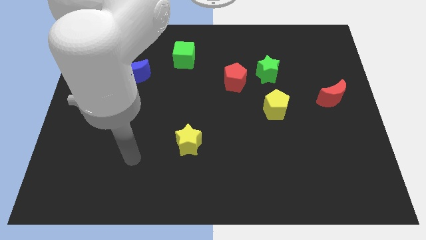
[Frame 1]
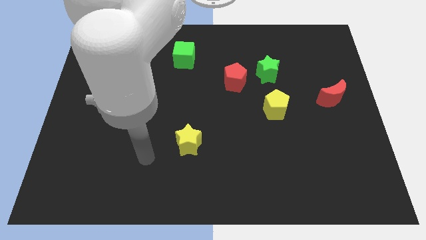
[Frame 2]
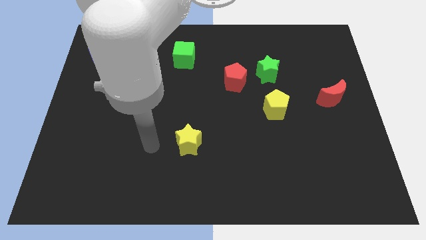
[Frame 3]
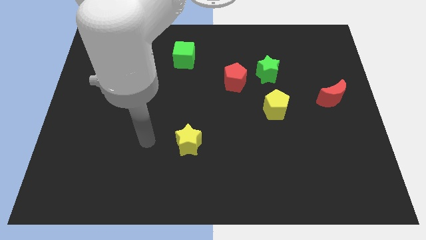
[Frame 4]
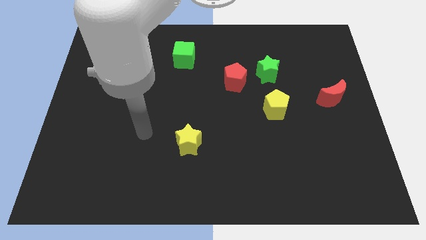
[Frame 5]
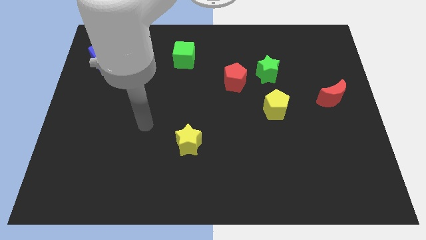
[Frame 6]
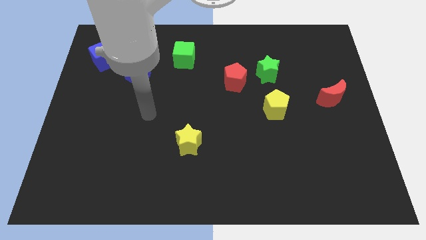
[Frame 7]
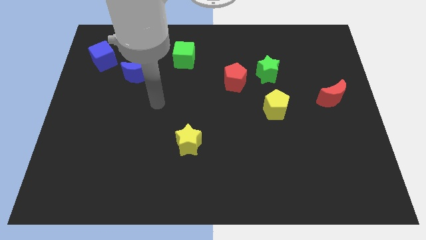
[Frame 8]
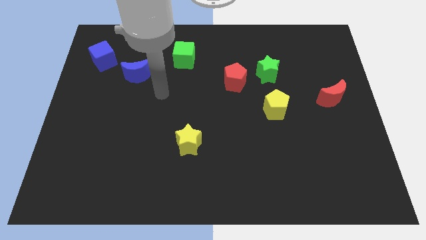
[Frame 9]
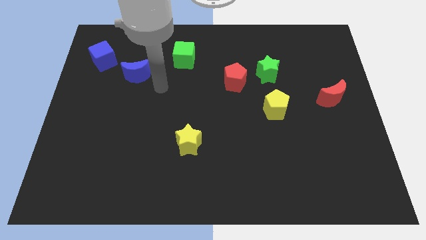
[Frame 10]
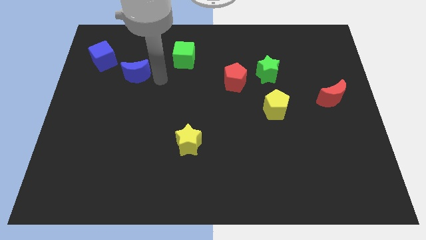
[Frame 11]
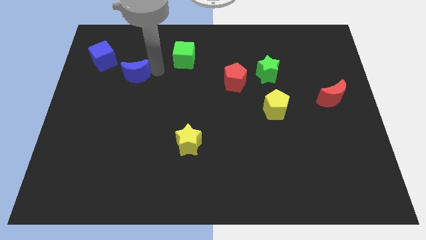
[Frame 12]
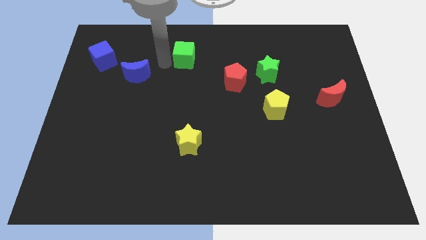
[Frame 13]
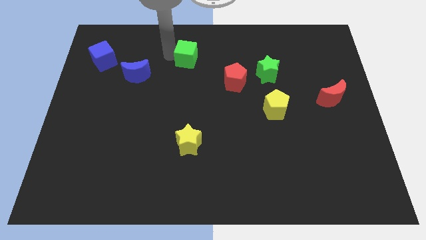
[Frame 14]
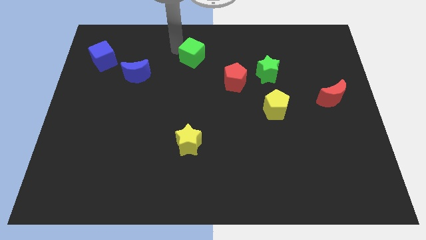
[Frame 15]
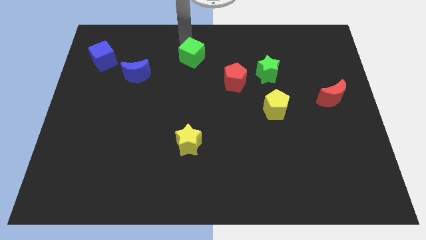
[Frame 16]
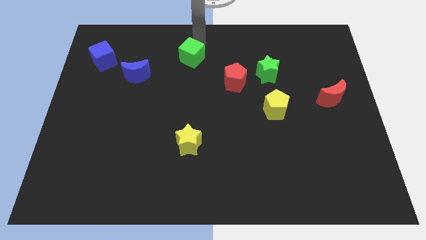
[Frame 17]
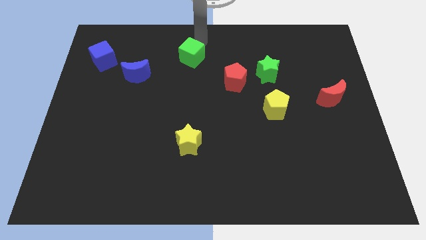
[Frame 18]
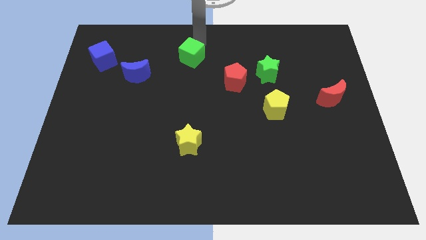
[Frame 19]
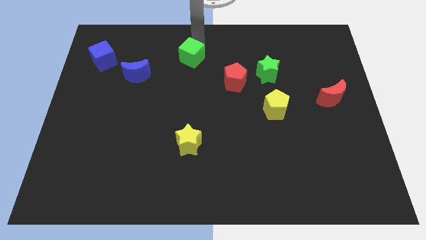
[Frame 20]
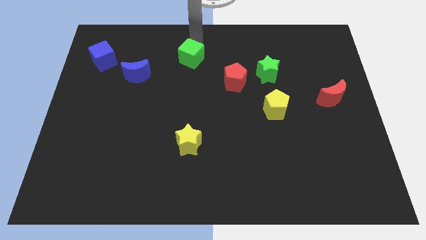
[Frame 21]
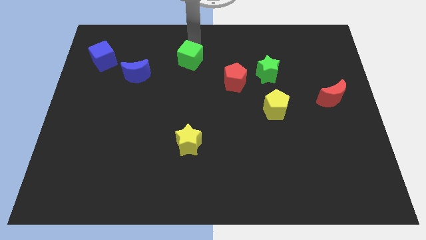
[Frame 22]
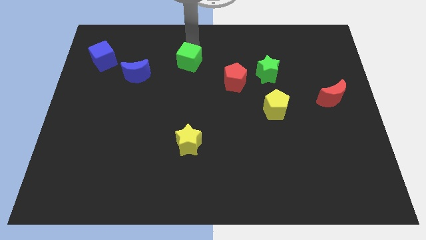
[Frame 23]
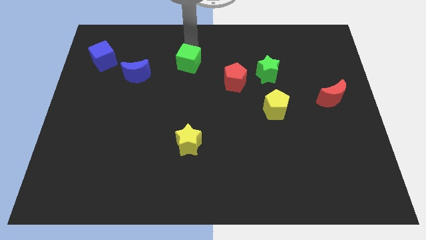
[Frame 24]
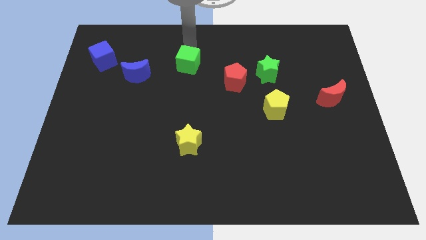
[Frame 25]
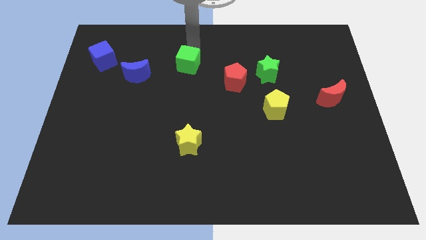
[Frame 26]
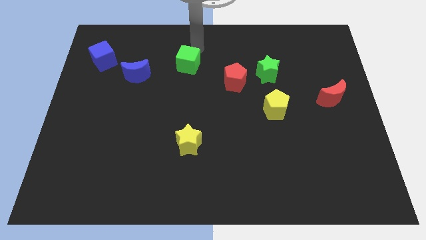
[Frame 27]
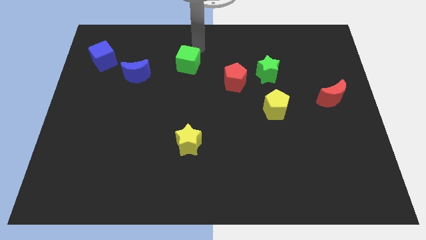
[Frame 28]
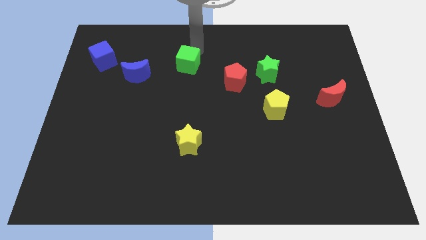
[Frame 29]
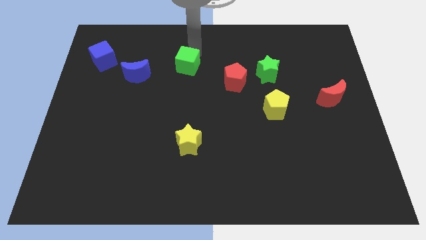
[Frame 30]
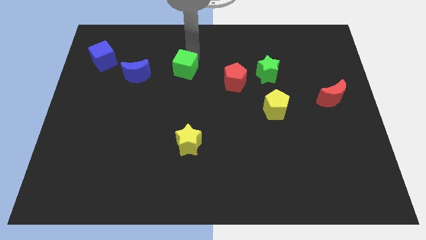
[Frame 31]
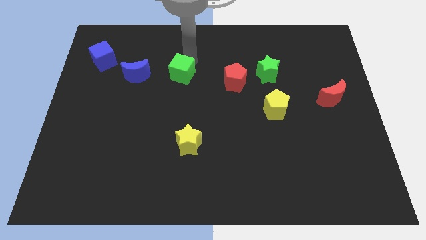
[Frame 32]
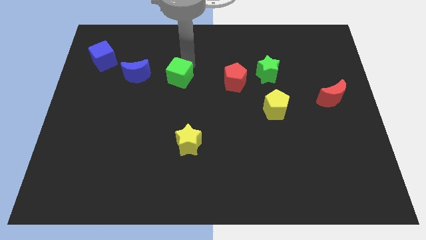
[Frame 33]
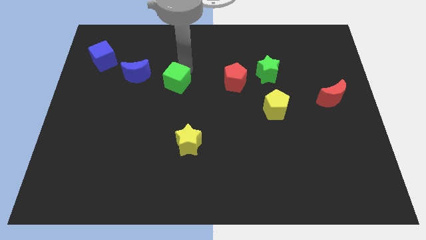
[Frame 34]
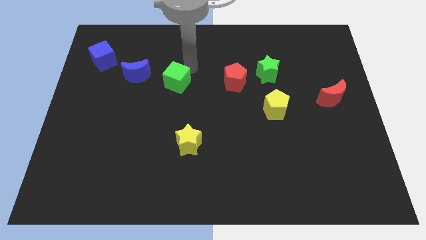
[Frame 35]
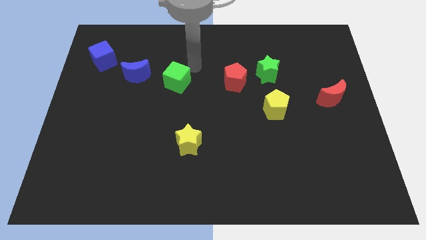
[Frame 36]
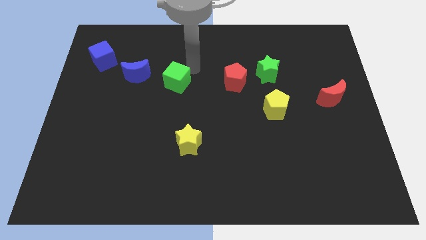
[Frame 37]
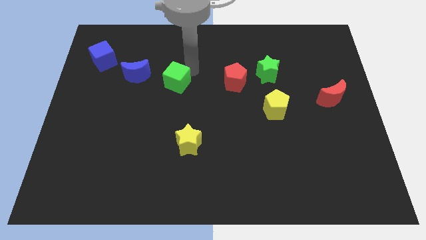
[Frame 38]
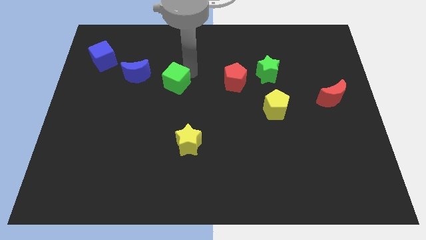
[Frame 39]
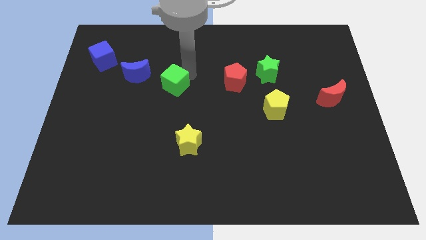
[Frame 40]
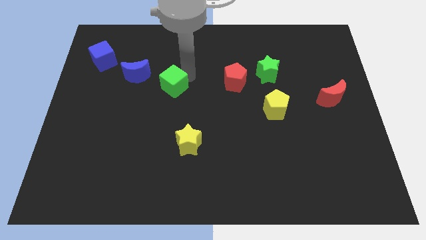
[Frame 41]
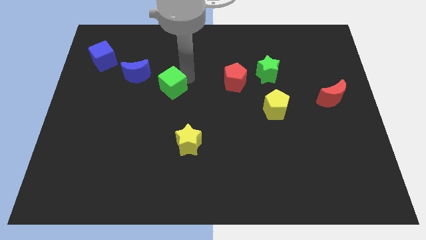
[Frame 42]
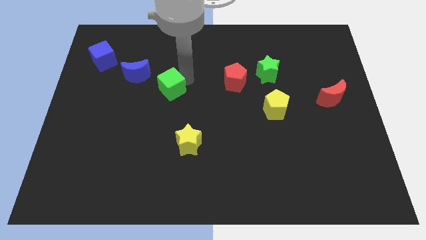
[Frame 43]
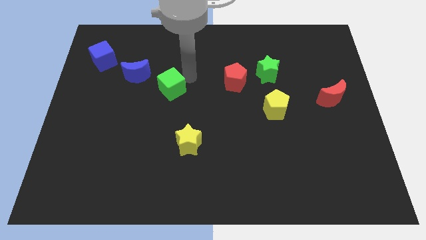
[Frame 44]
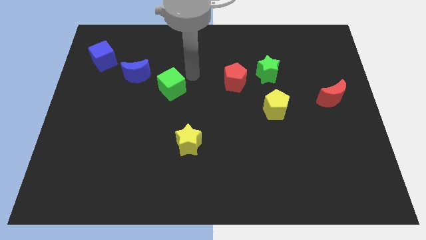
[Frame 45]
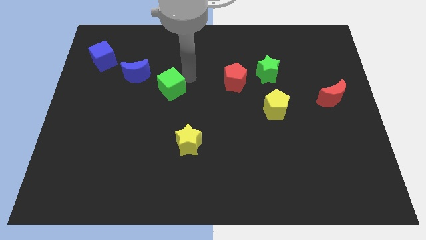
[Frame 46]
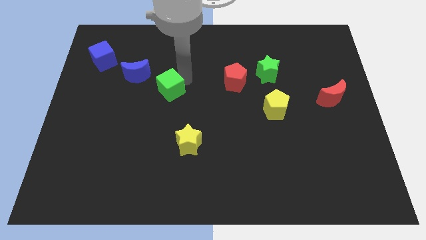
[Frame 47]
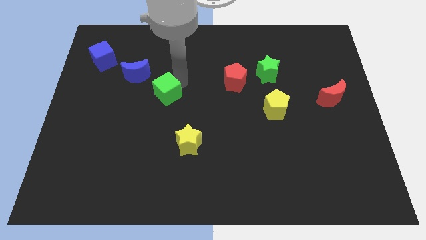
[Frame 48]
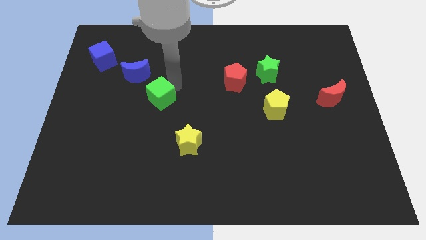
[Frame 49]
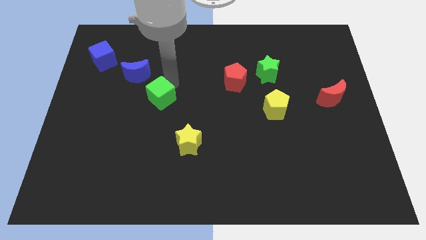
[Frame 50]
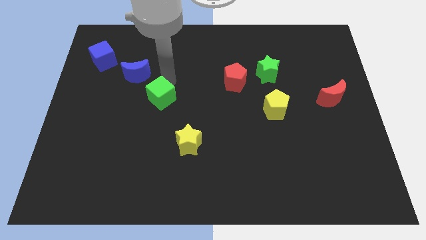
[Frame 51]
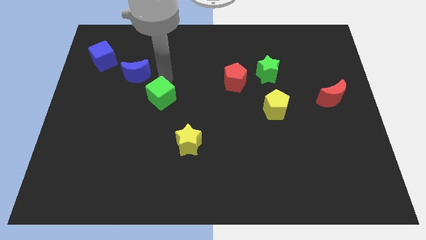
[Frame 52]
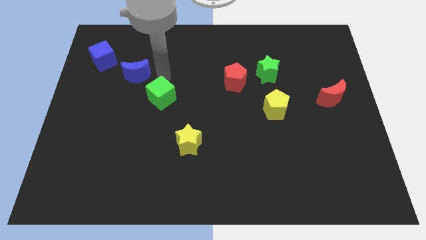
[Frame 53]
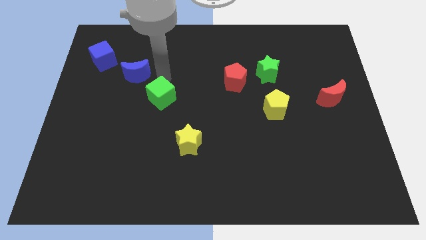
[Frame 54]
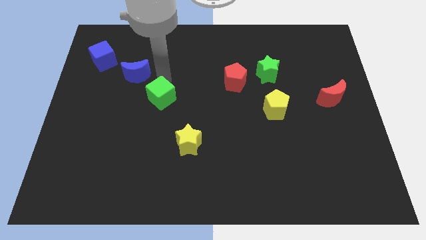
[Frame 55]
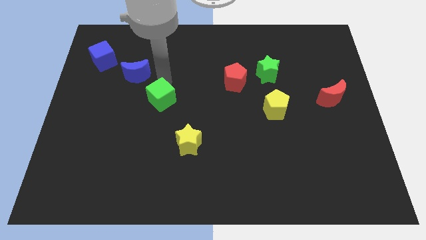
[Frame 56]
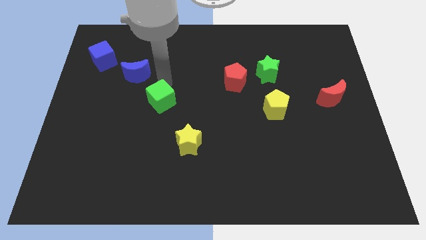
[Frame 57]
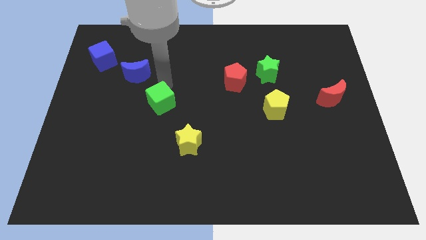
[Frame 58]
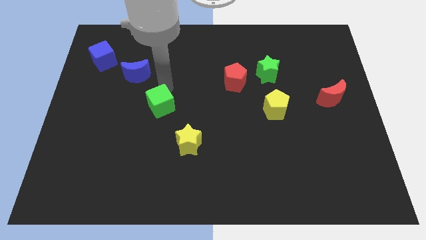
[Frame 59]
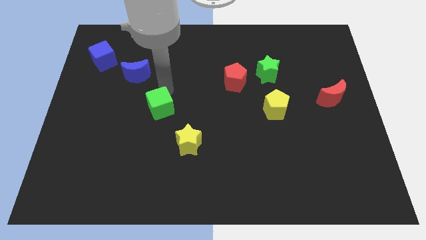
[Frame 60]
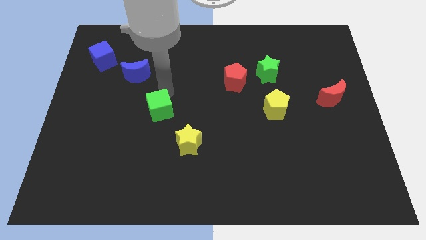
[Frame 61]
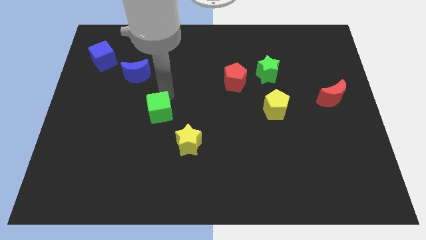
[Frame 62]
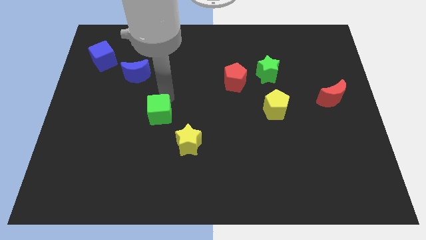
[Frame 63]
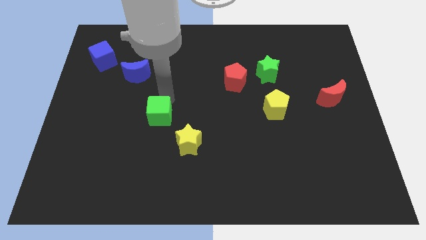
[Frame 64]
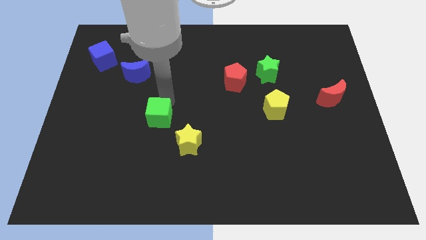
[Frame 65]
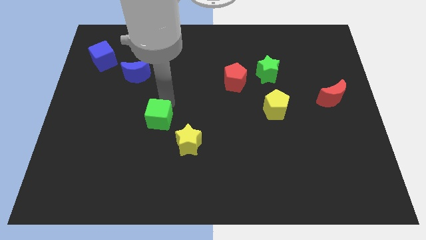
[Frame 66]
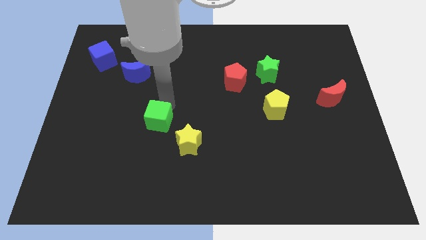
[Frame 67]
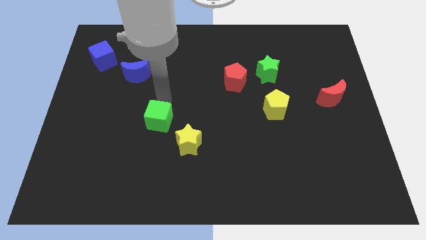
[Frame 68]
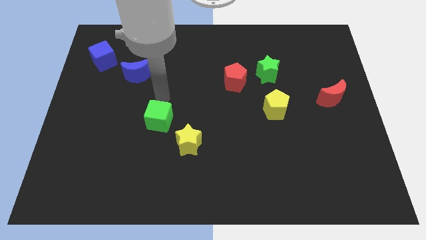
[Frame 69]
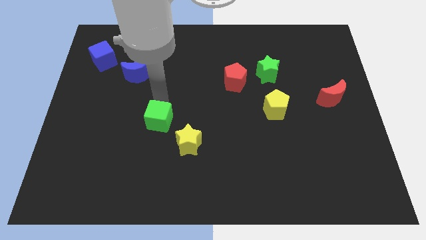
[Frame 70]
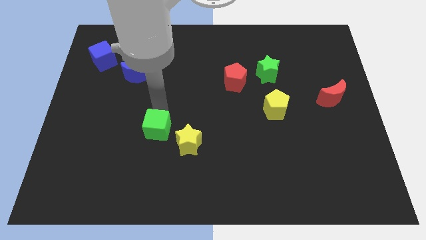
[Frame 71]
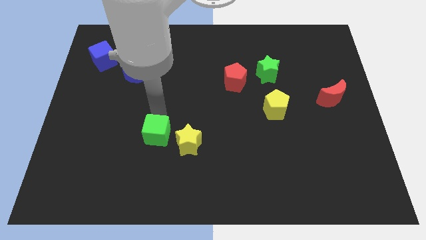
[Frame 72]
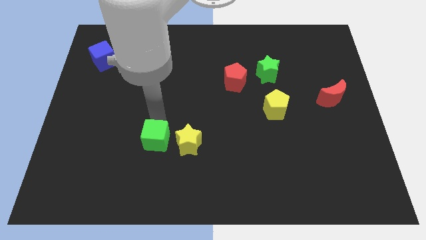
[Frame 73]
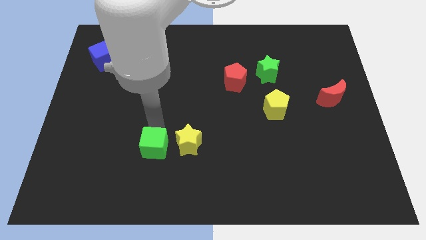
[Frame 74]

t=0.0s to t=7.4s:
put the green cube to the bottom left side of the yellow star
